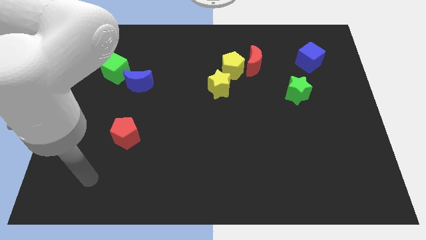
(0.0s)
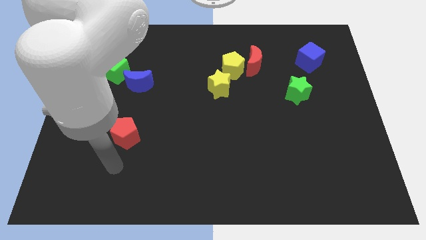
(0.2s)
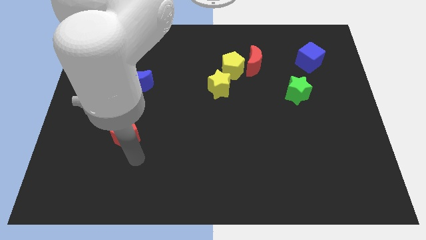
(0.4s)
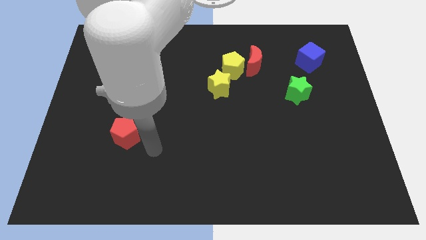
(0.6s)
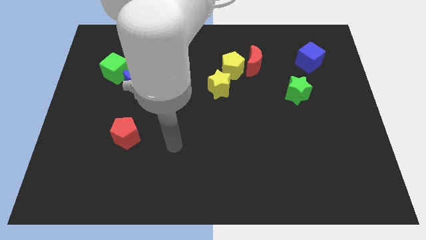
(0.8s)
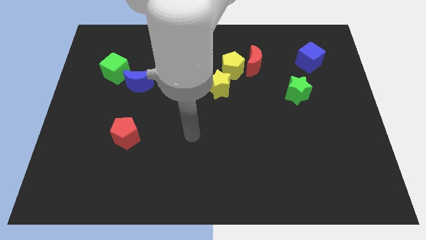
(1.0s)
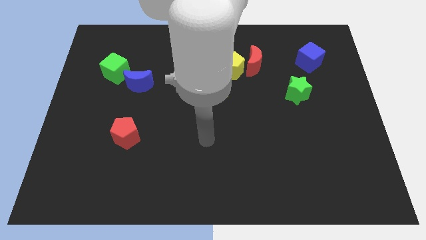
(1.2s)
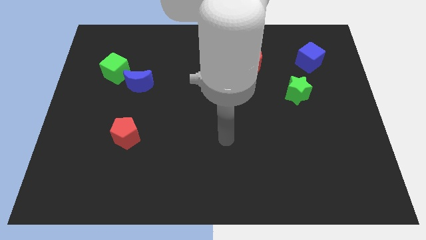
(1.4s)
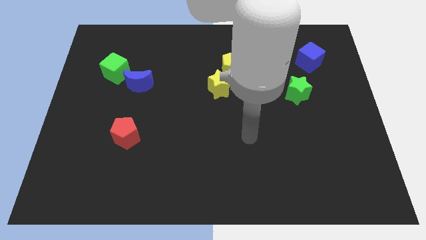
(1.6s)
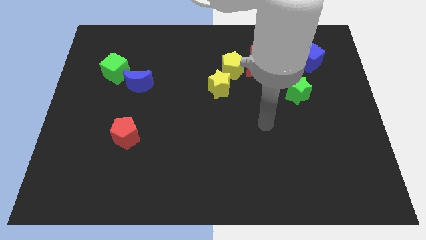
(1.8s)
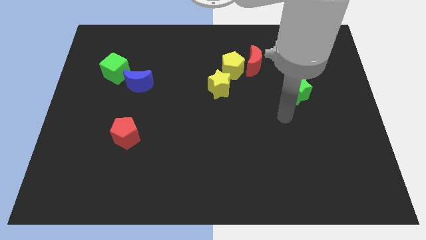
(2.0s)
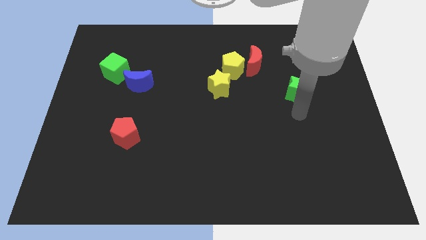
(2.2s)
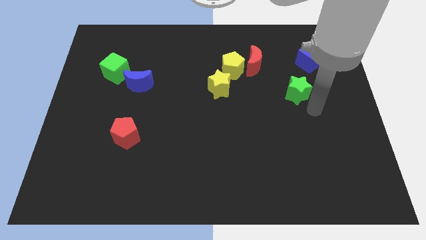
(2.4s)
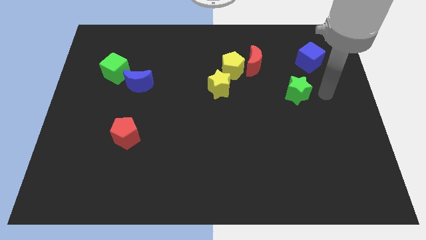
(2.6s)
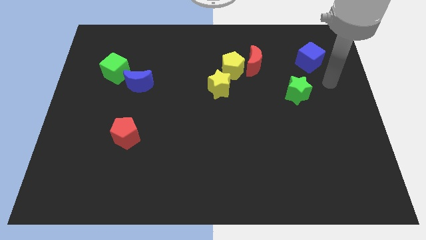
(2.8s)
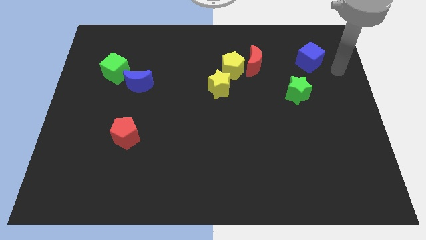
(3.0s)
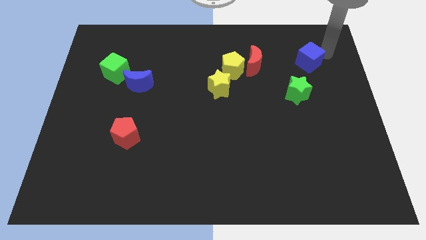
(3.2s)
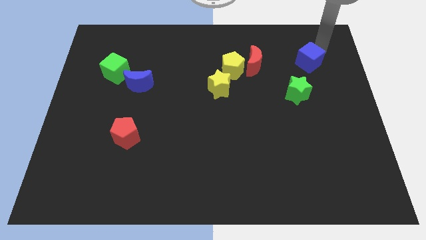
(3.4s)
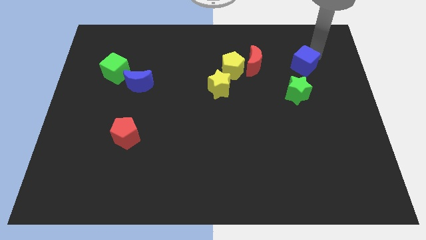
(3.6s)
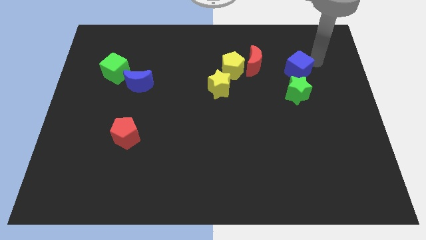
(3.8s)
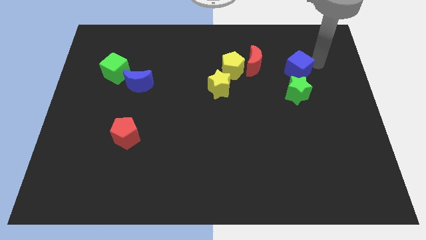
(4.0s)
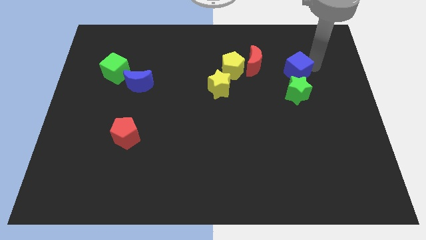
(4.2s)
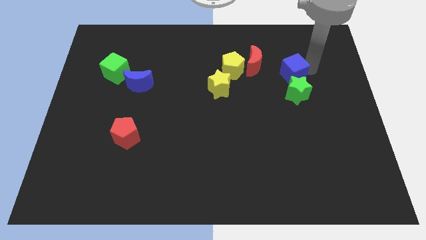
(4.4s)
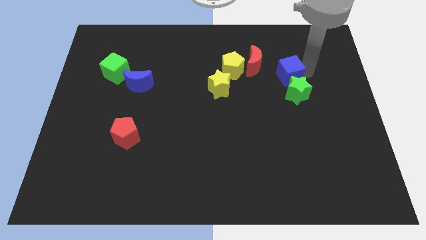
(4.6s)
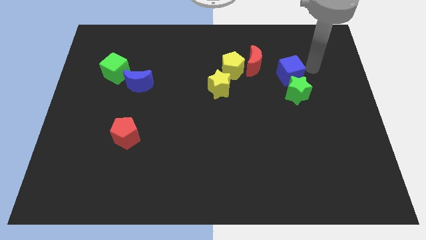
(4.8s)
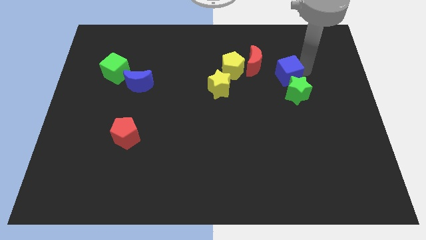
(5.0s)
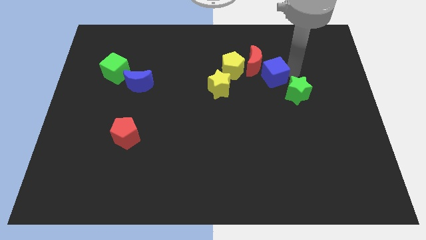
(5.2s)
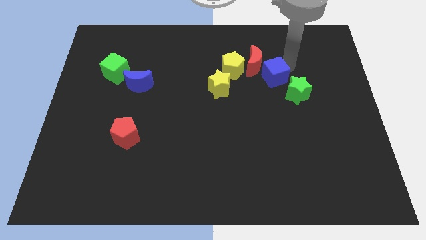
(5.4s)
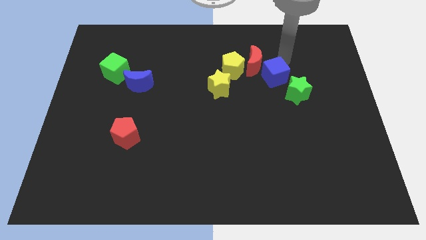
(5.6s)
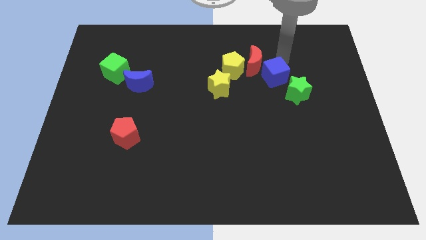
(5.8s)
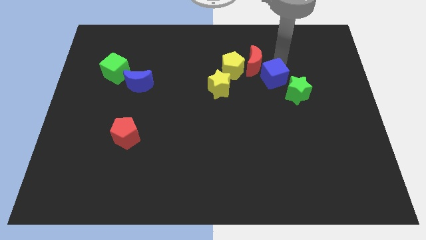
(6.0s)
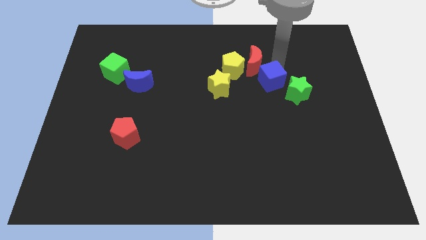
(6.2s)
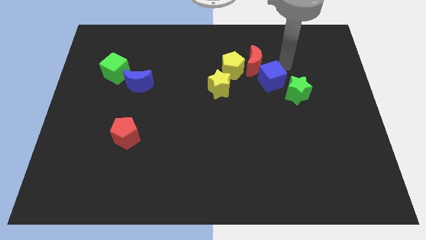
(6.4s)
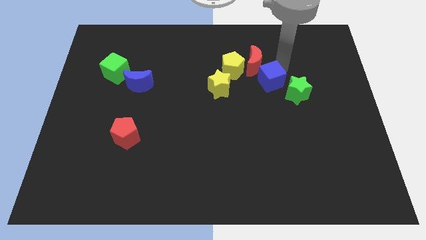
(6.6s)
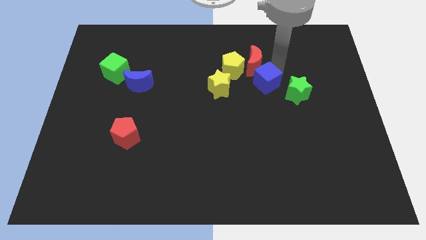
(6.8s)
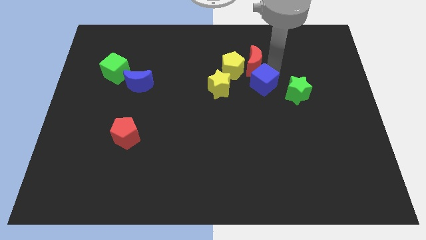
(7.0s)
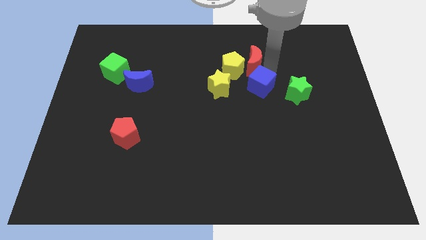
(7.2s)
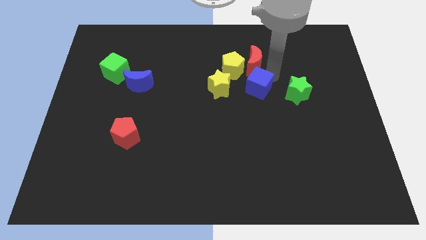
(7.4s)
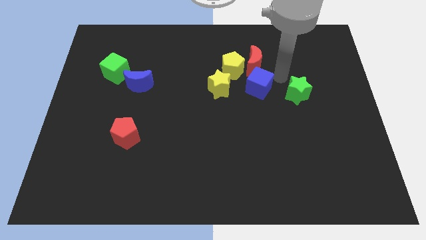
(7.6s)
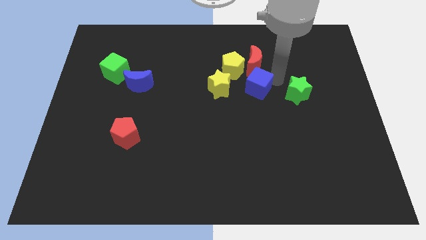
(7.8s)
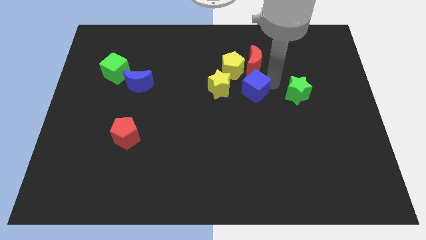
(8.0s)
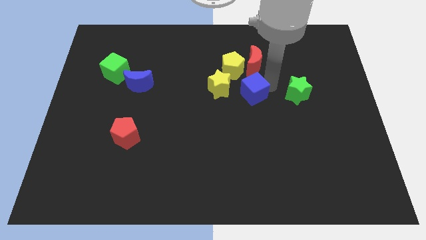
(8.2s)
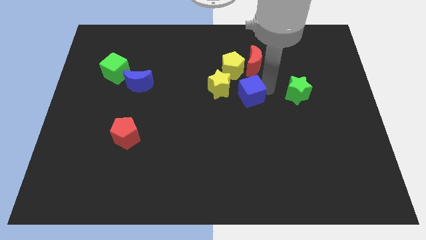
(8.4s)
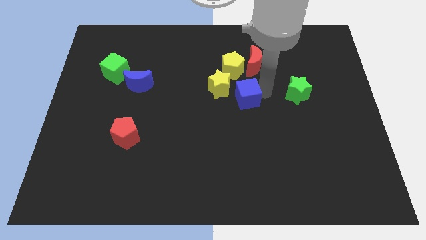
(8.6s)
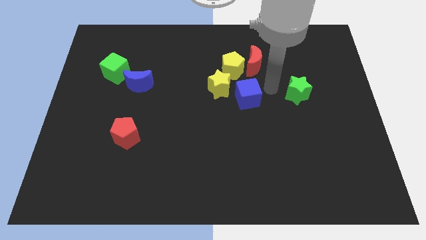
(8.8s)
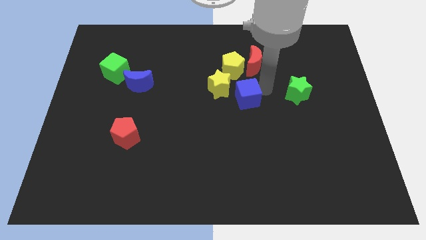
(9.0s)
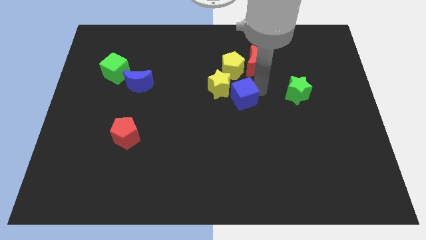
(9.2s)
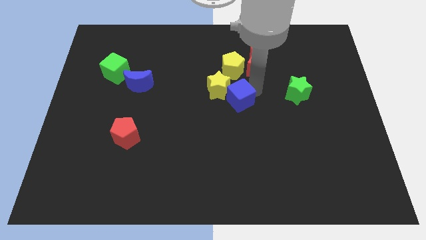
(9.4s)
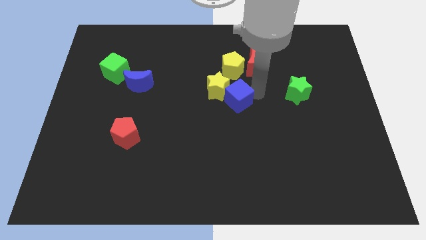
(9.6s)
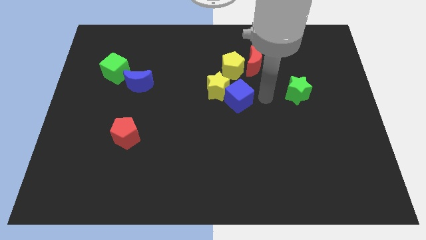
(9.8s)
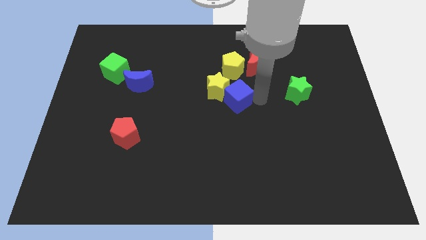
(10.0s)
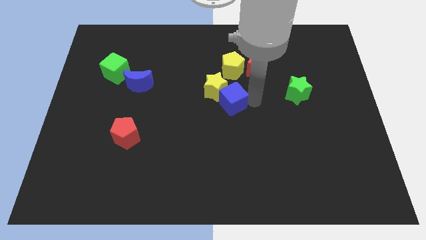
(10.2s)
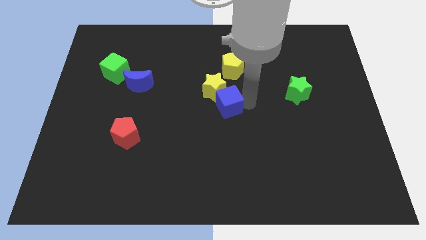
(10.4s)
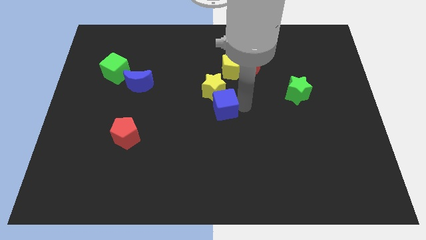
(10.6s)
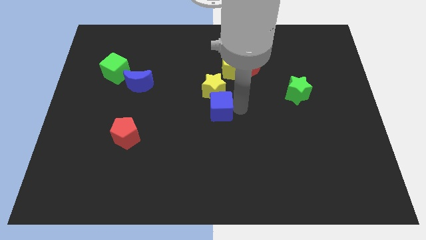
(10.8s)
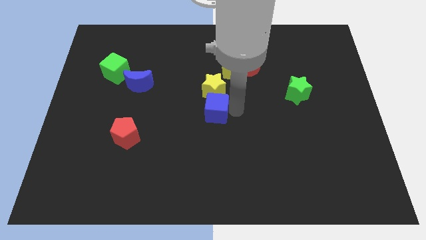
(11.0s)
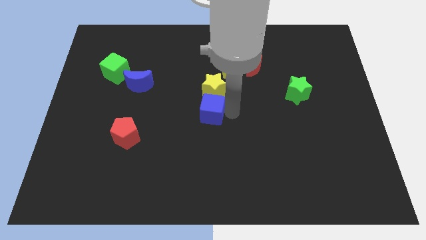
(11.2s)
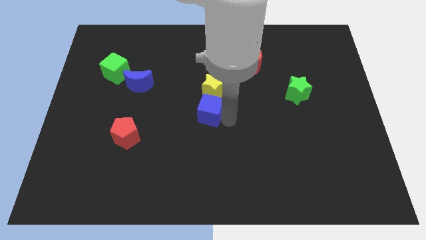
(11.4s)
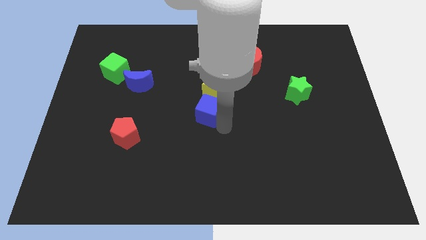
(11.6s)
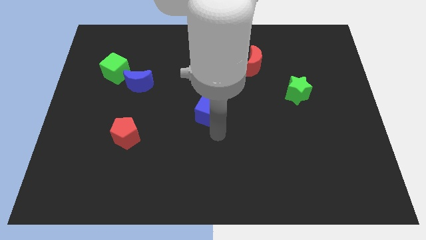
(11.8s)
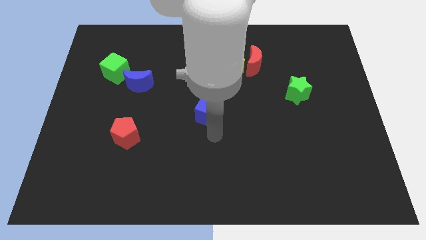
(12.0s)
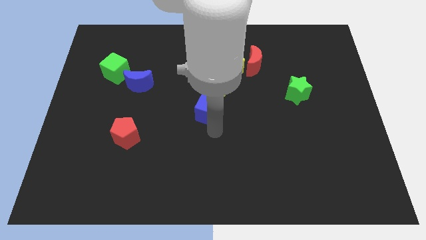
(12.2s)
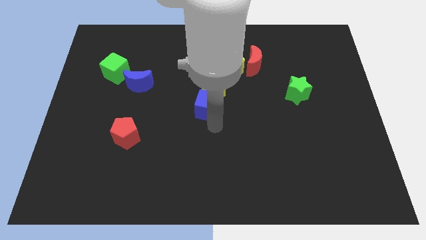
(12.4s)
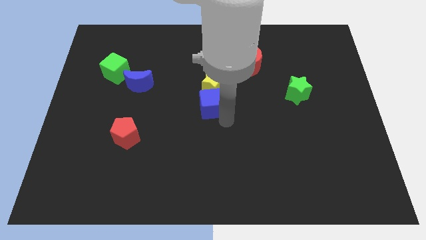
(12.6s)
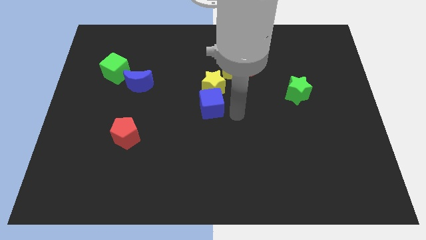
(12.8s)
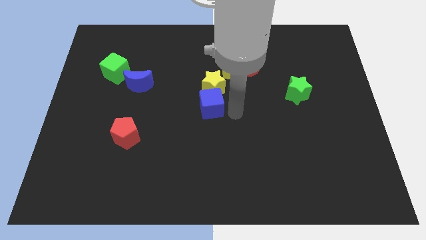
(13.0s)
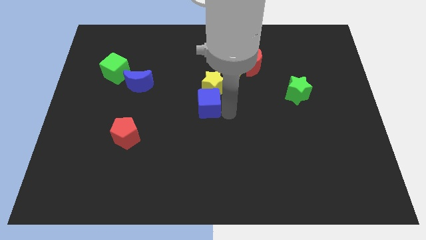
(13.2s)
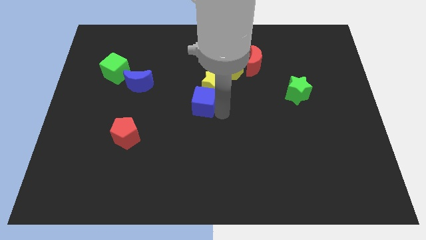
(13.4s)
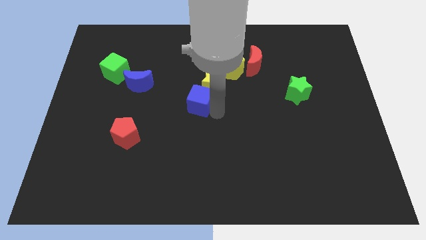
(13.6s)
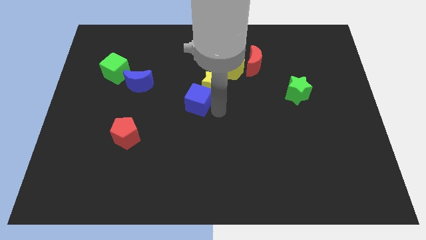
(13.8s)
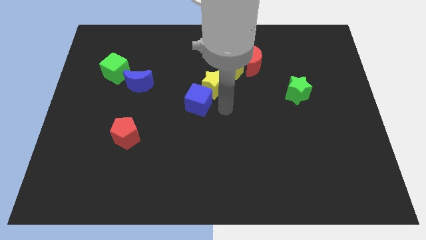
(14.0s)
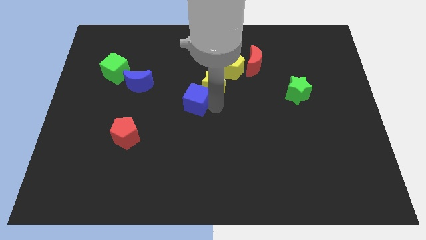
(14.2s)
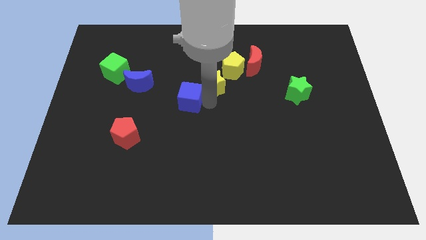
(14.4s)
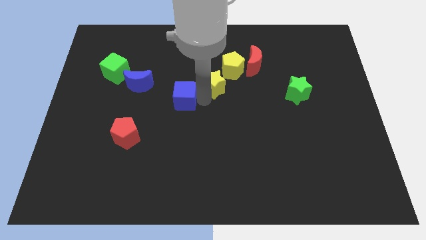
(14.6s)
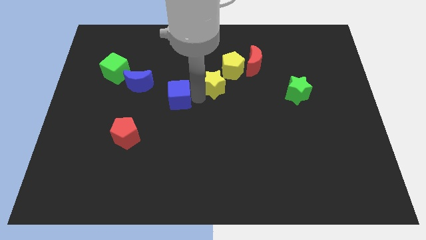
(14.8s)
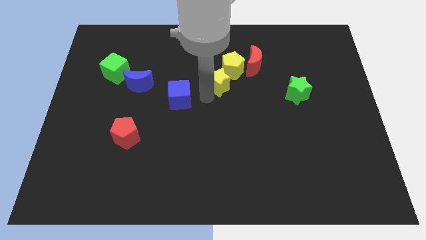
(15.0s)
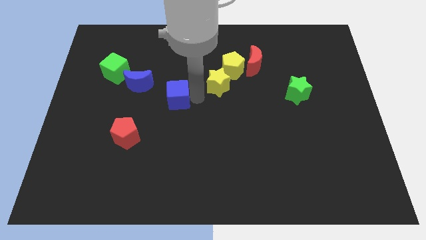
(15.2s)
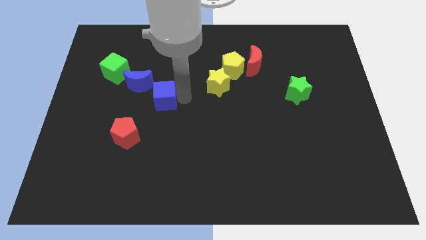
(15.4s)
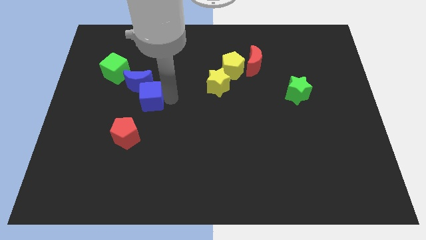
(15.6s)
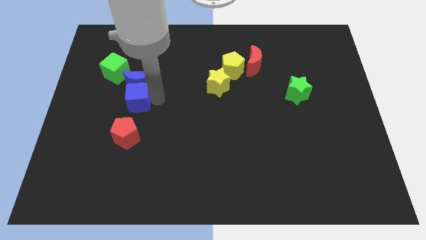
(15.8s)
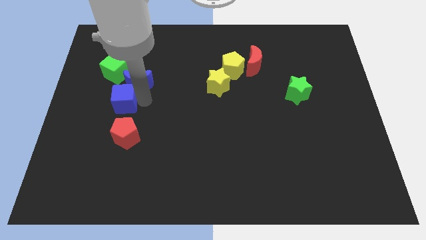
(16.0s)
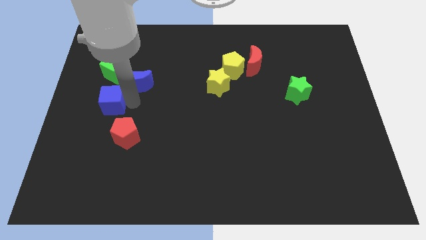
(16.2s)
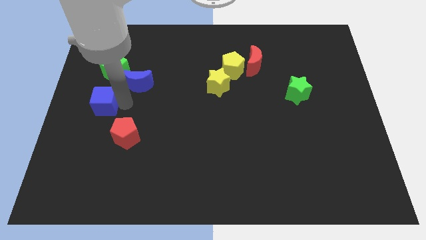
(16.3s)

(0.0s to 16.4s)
put the blue cube to the center left
